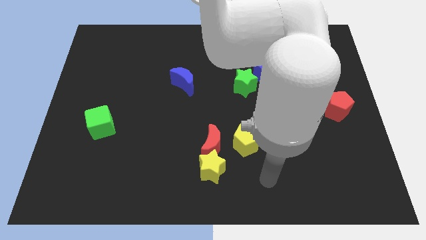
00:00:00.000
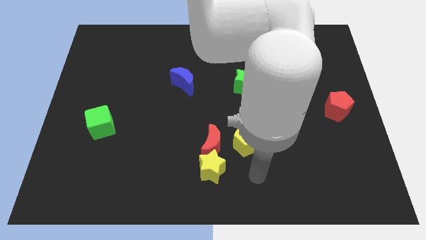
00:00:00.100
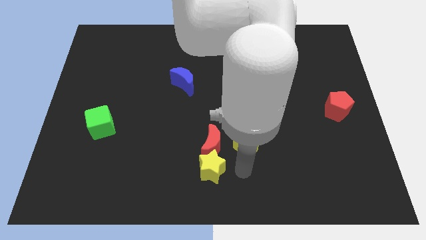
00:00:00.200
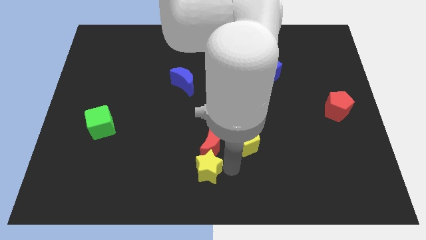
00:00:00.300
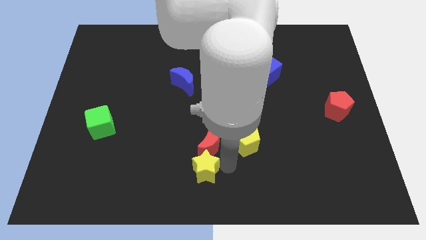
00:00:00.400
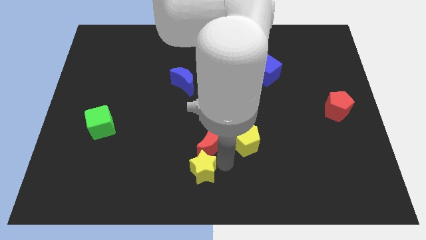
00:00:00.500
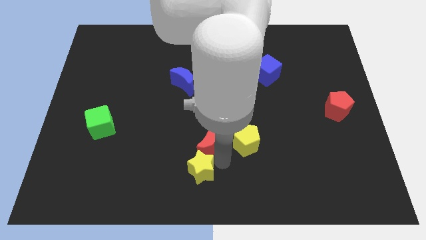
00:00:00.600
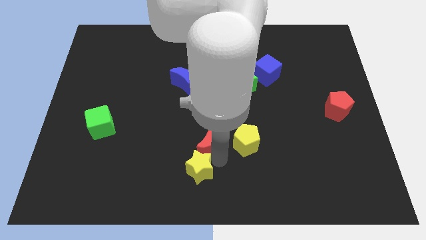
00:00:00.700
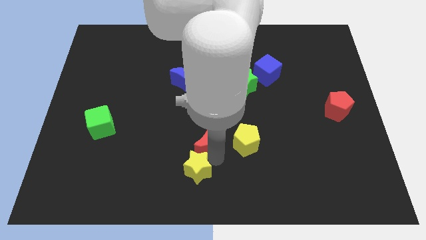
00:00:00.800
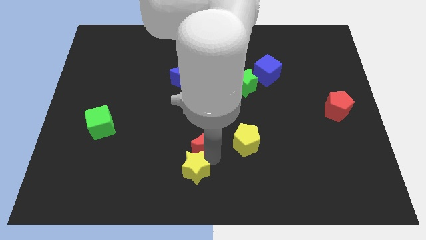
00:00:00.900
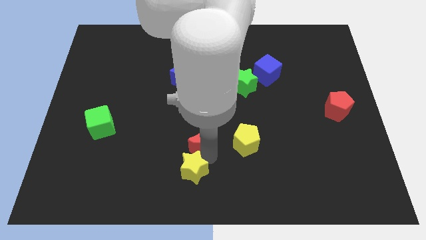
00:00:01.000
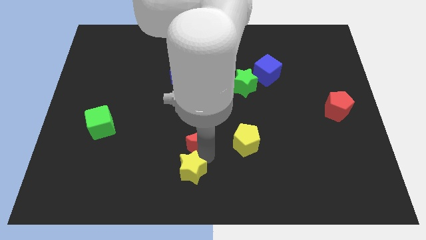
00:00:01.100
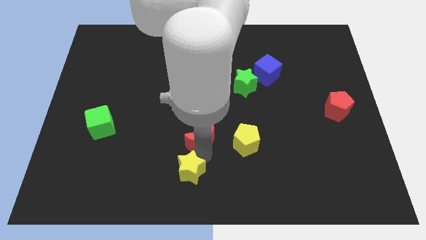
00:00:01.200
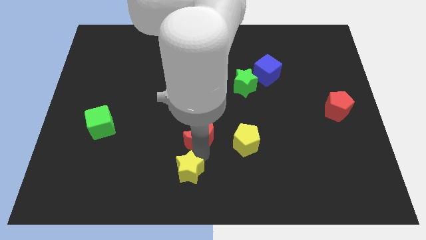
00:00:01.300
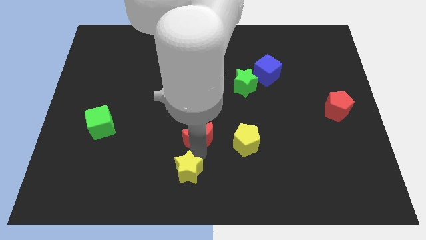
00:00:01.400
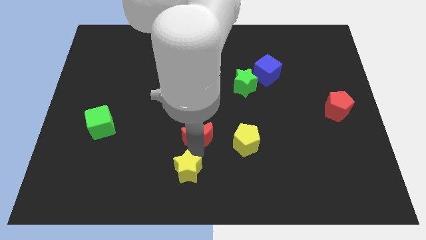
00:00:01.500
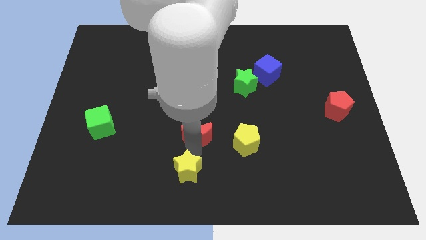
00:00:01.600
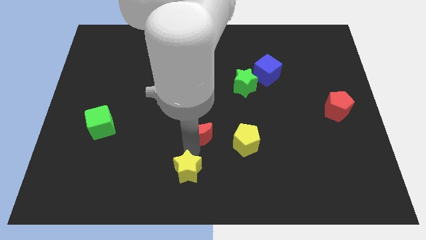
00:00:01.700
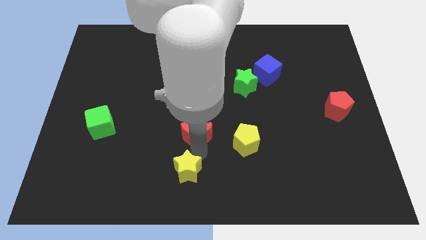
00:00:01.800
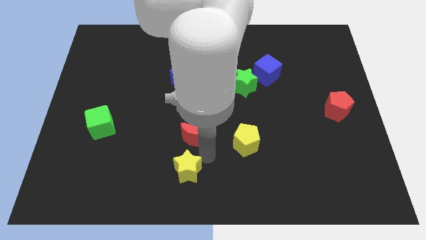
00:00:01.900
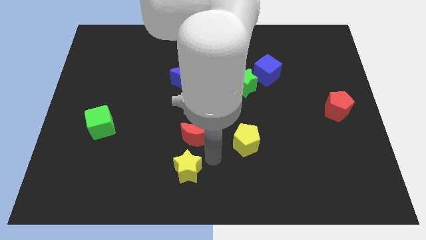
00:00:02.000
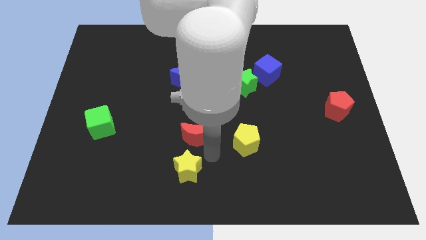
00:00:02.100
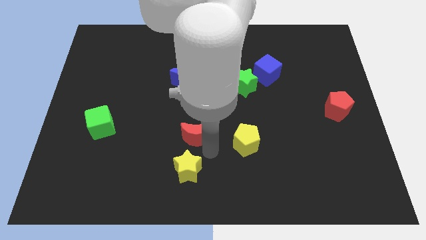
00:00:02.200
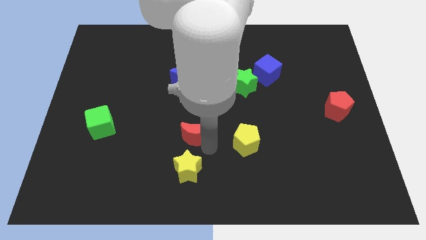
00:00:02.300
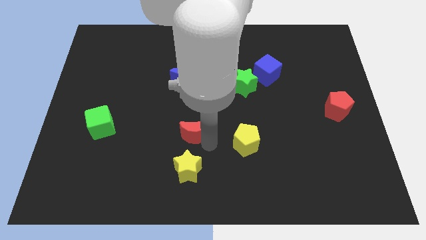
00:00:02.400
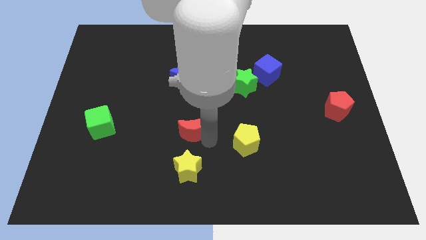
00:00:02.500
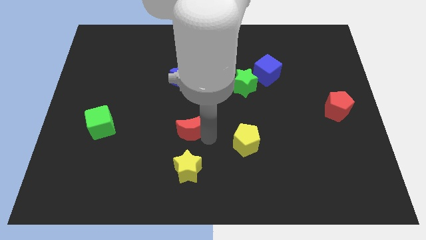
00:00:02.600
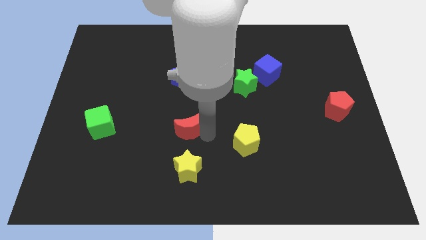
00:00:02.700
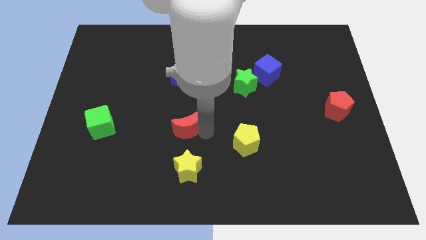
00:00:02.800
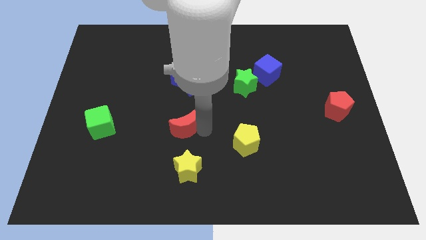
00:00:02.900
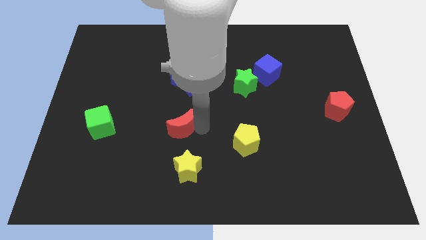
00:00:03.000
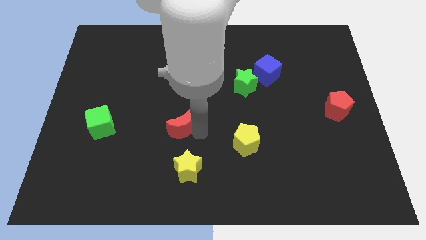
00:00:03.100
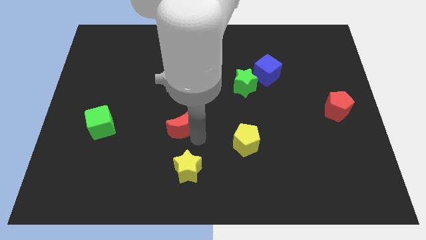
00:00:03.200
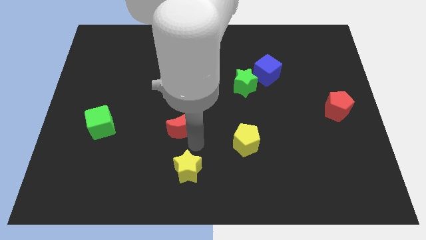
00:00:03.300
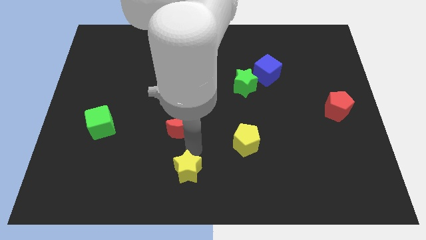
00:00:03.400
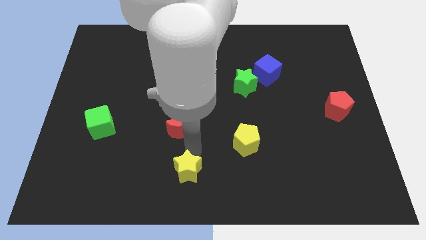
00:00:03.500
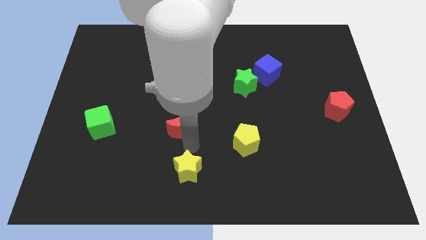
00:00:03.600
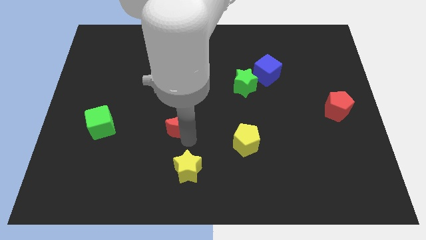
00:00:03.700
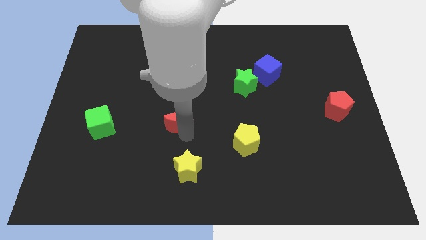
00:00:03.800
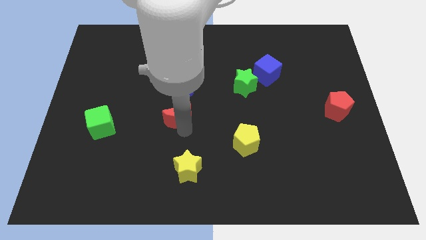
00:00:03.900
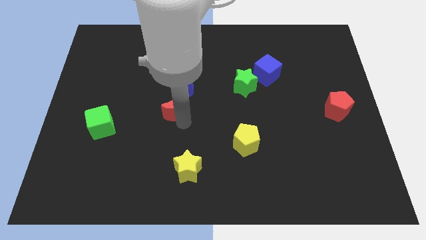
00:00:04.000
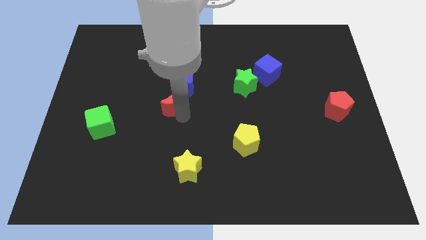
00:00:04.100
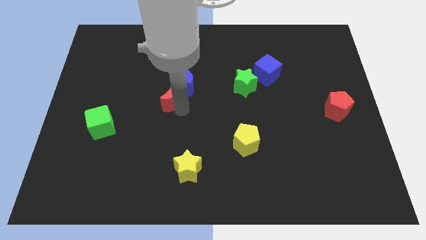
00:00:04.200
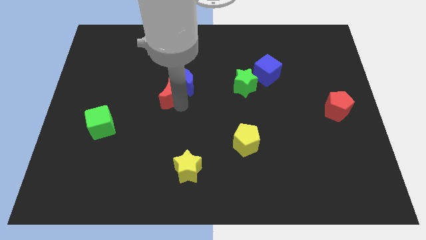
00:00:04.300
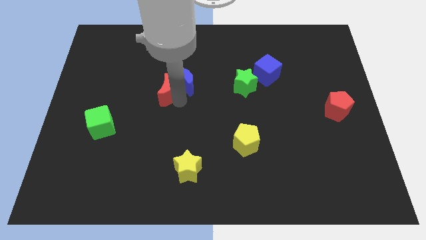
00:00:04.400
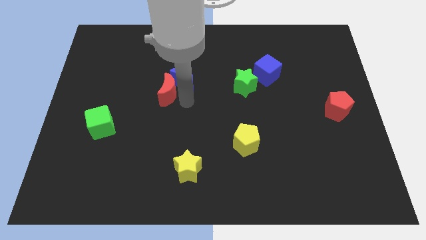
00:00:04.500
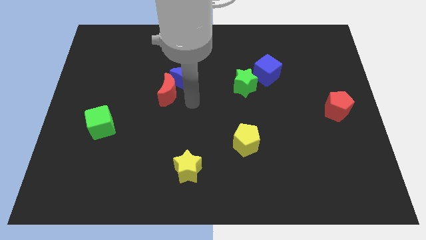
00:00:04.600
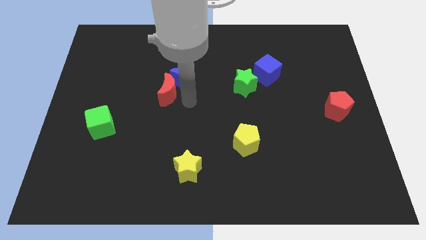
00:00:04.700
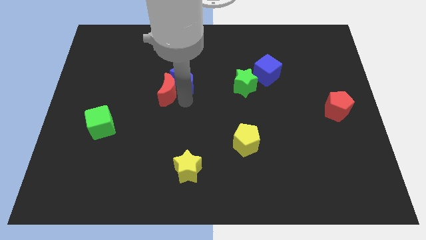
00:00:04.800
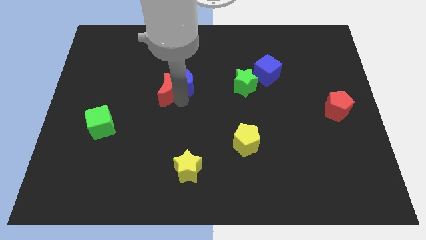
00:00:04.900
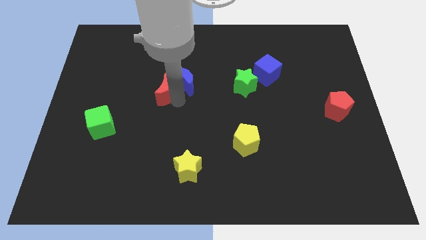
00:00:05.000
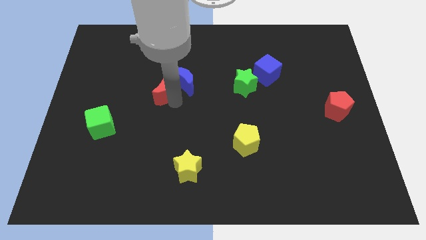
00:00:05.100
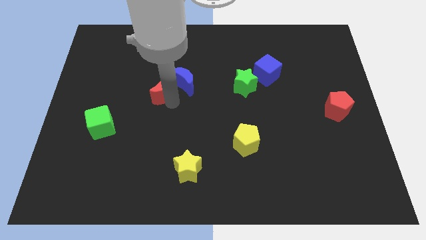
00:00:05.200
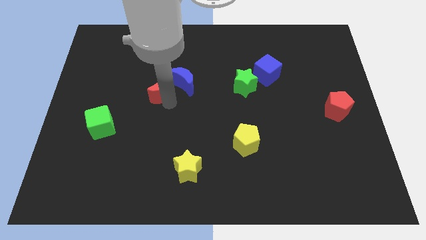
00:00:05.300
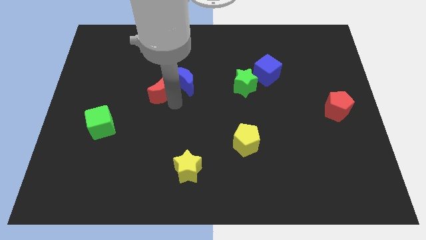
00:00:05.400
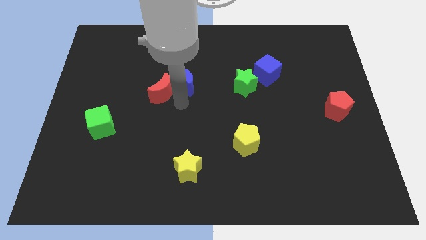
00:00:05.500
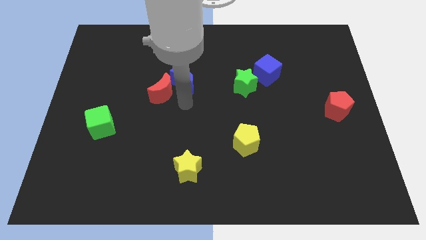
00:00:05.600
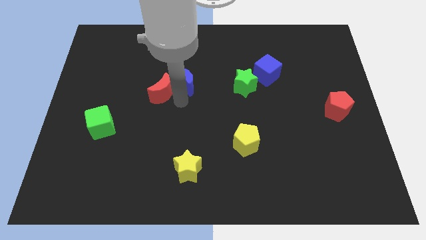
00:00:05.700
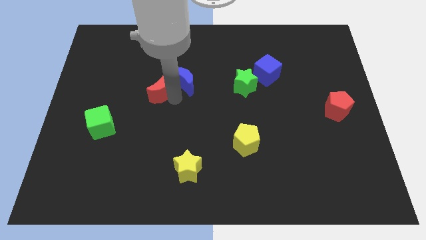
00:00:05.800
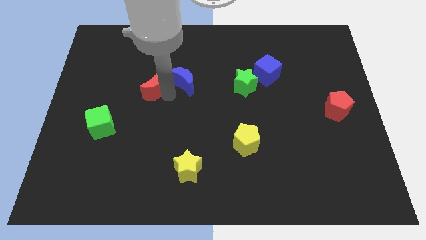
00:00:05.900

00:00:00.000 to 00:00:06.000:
slide the red moon upwards and then left

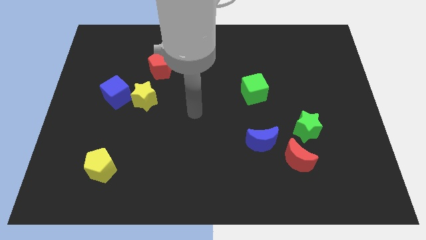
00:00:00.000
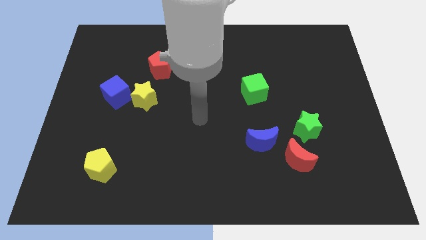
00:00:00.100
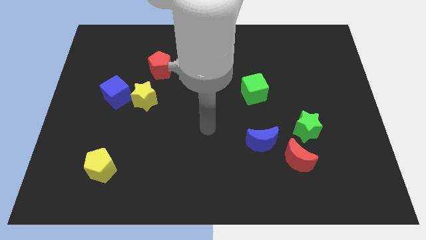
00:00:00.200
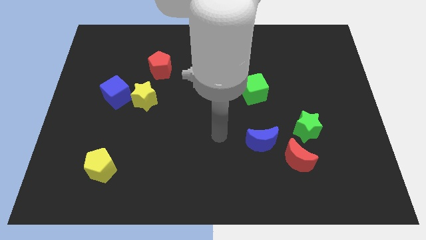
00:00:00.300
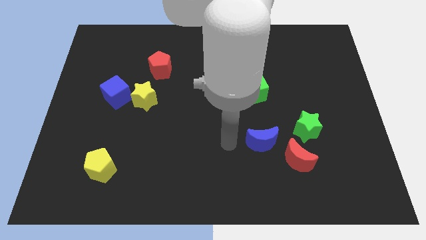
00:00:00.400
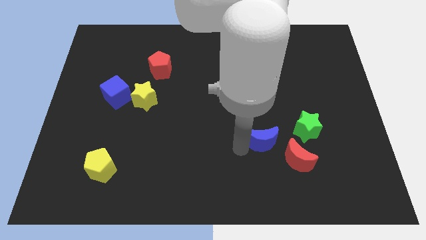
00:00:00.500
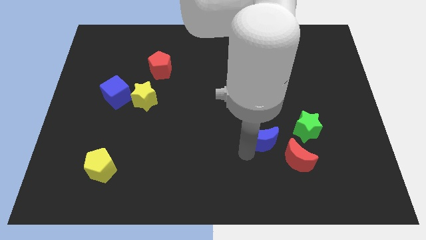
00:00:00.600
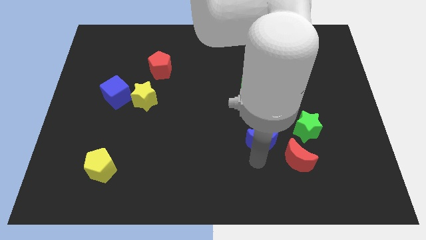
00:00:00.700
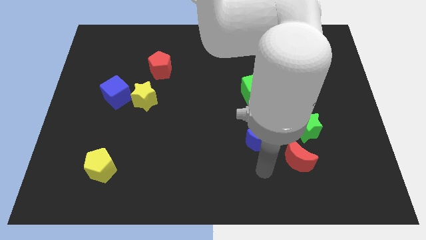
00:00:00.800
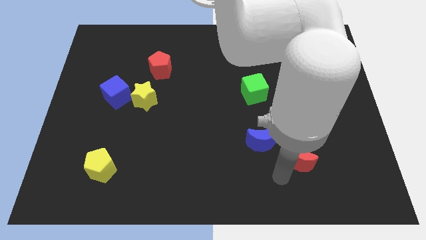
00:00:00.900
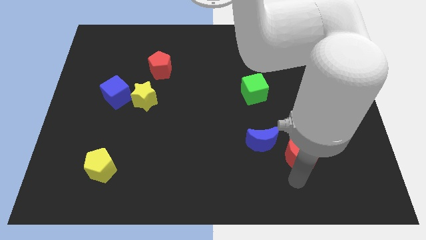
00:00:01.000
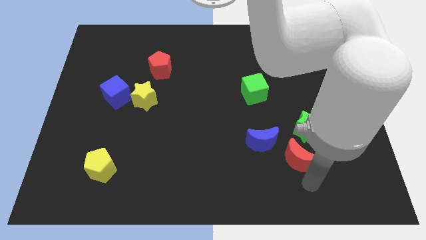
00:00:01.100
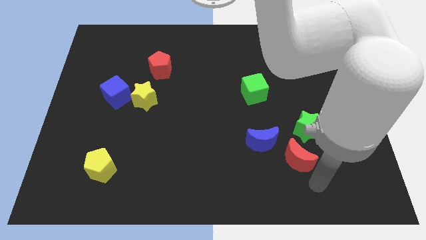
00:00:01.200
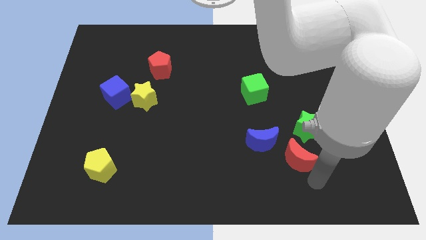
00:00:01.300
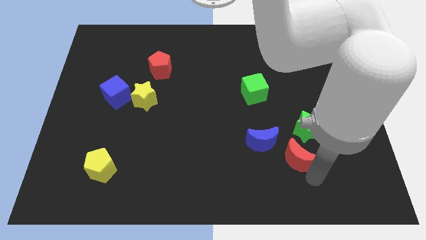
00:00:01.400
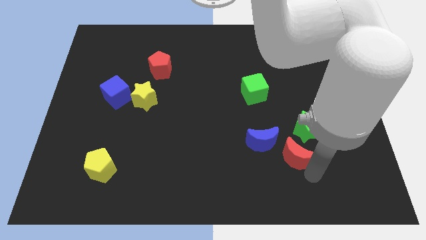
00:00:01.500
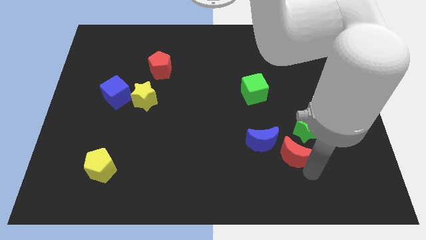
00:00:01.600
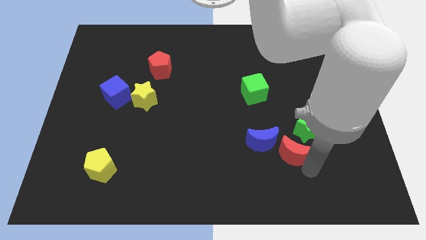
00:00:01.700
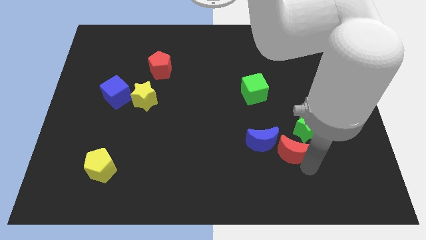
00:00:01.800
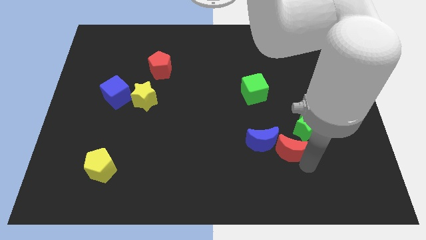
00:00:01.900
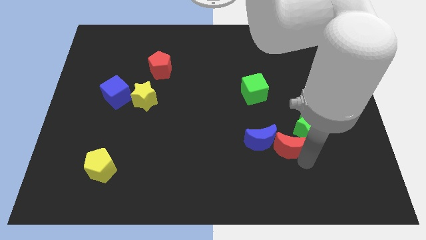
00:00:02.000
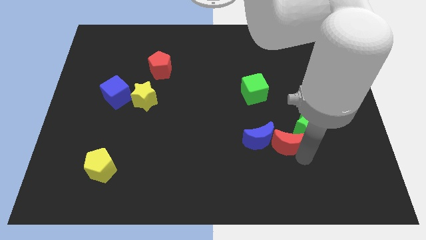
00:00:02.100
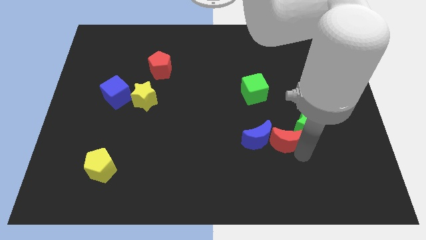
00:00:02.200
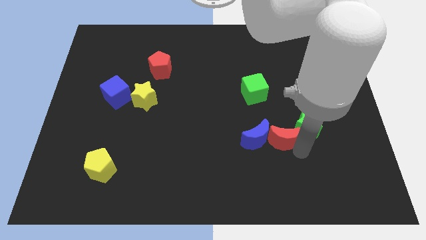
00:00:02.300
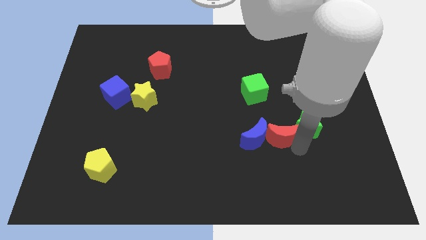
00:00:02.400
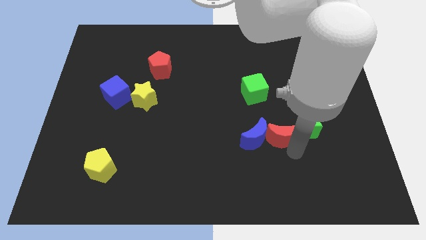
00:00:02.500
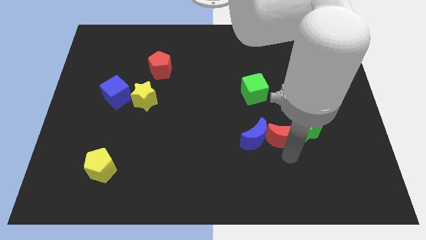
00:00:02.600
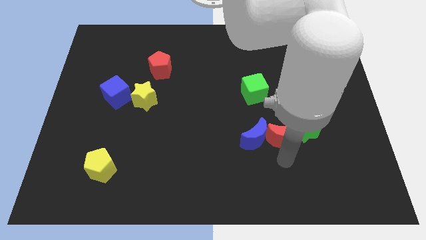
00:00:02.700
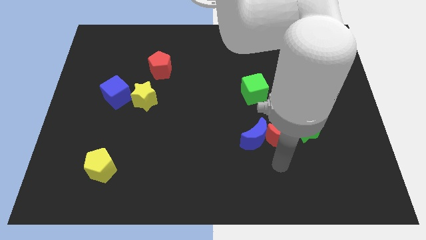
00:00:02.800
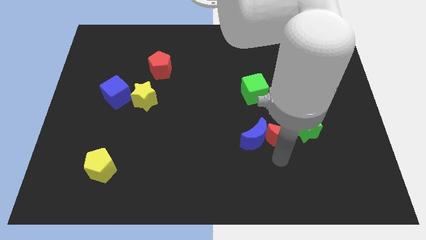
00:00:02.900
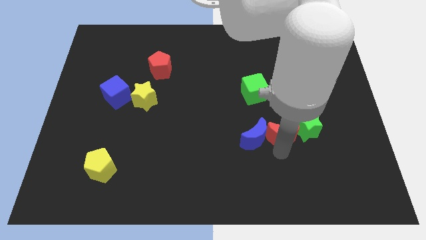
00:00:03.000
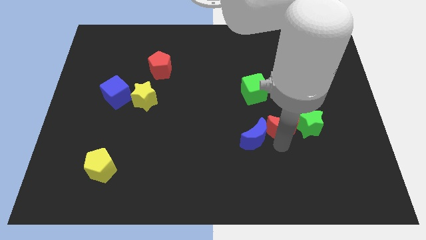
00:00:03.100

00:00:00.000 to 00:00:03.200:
push the red moon somewhat up
